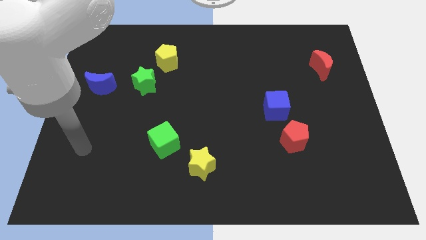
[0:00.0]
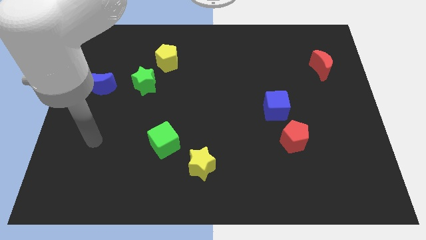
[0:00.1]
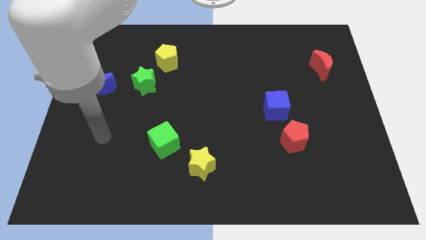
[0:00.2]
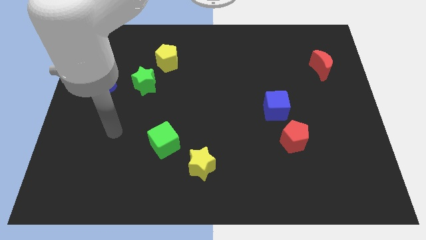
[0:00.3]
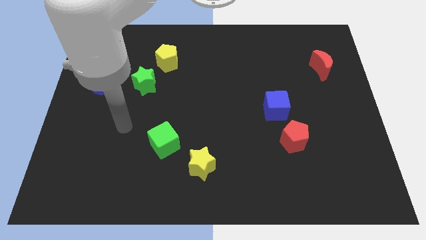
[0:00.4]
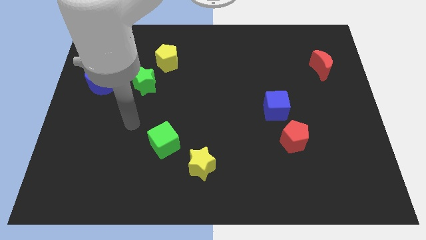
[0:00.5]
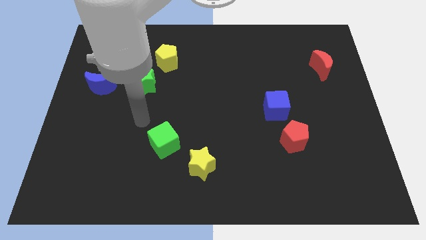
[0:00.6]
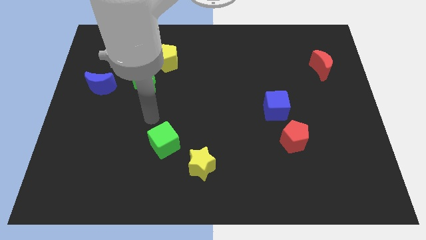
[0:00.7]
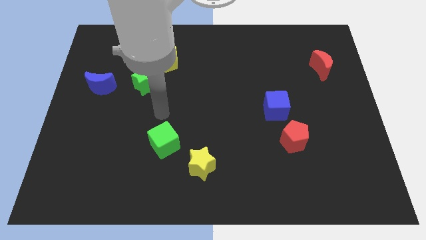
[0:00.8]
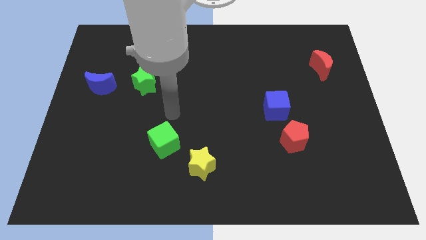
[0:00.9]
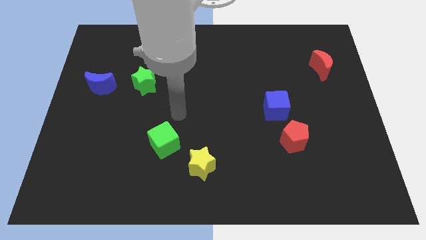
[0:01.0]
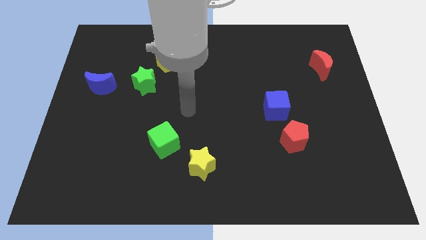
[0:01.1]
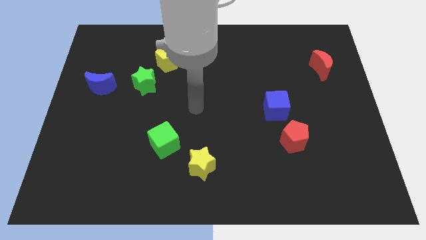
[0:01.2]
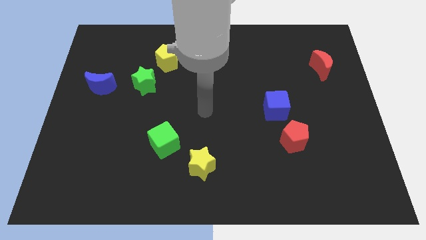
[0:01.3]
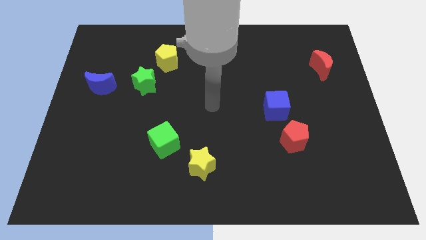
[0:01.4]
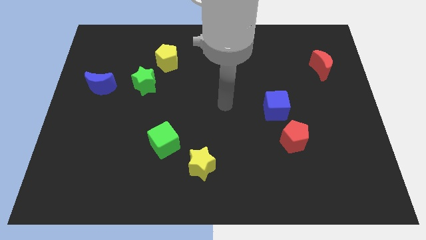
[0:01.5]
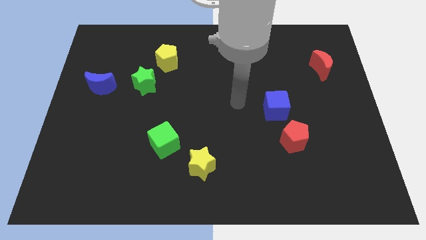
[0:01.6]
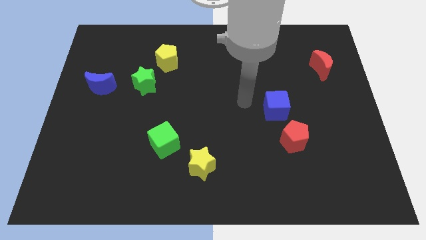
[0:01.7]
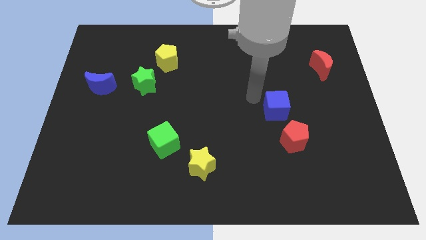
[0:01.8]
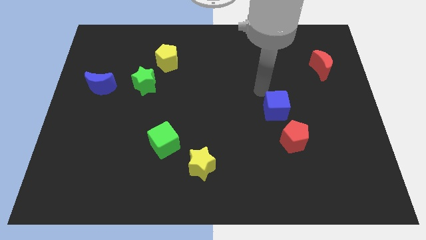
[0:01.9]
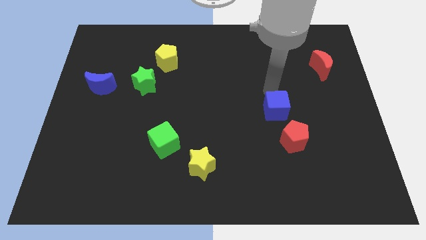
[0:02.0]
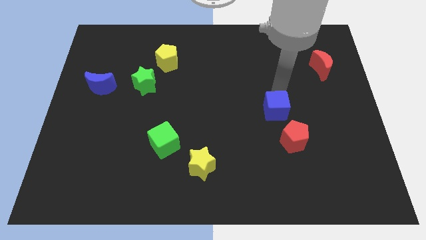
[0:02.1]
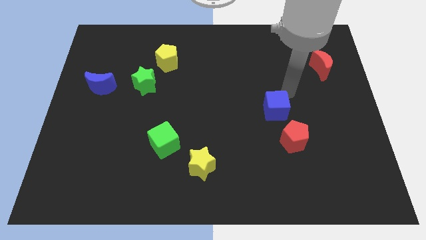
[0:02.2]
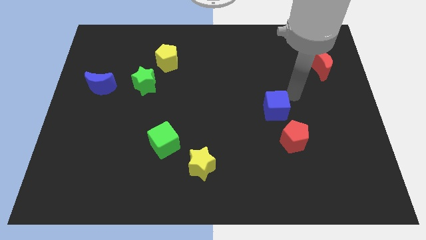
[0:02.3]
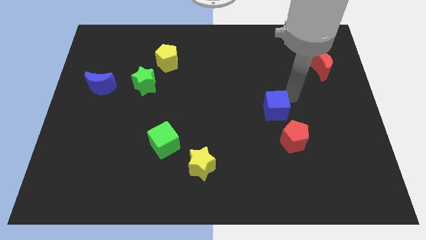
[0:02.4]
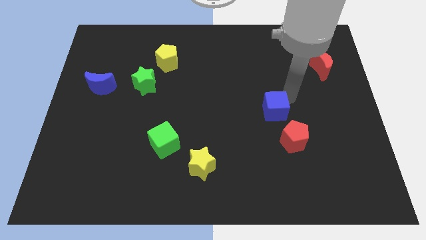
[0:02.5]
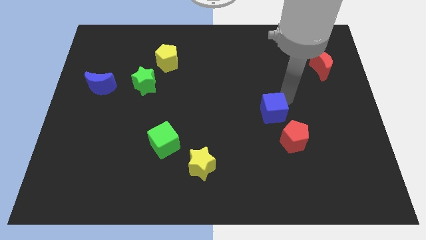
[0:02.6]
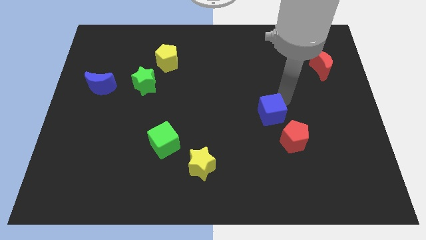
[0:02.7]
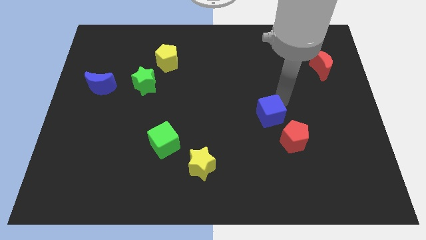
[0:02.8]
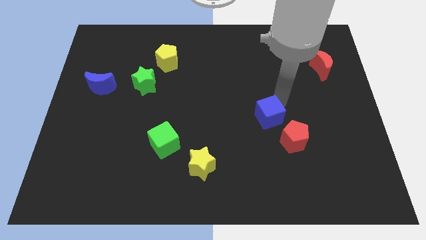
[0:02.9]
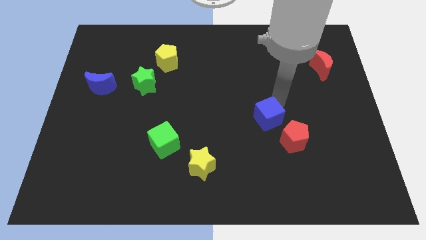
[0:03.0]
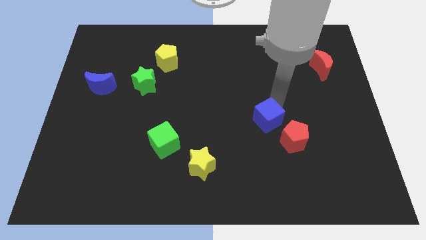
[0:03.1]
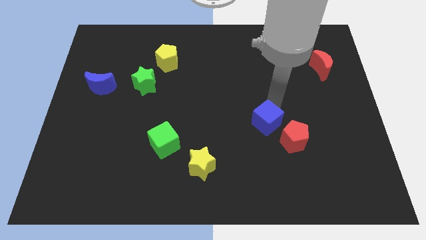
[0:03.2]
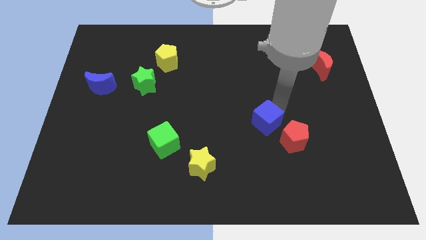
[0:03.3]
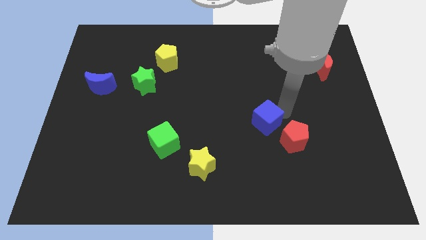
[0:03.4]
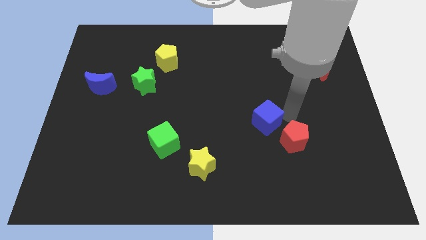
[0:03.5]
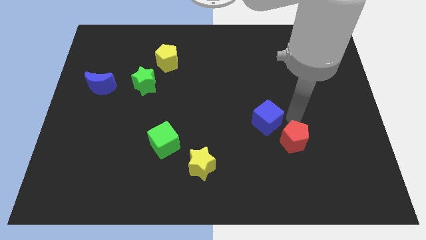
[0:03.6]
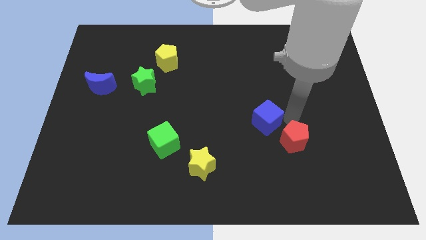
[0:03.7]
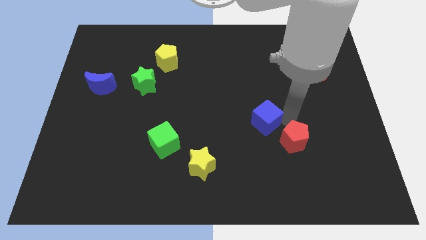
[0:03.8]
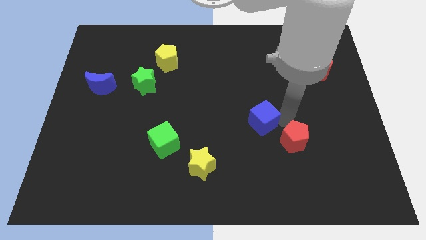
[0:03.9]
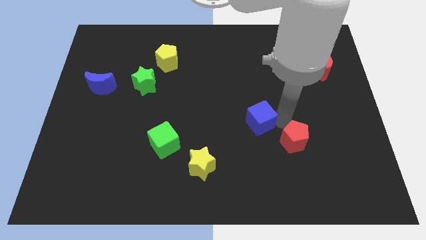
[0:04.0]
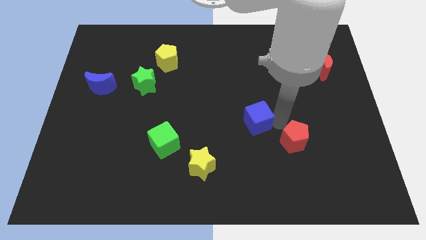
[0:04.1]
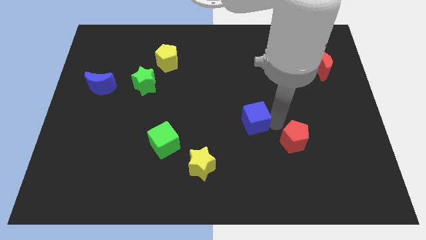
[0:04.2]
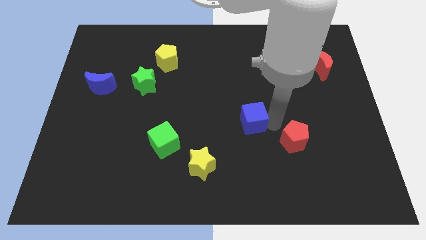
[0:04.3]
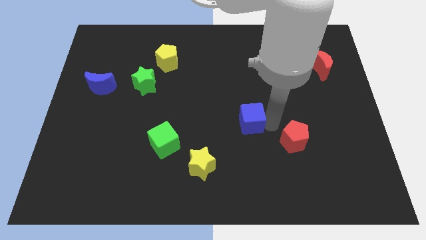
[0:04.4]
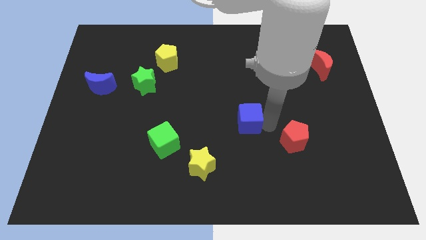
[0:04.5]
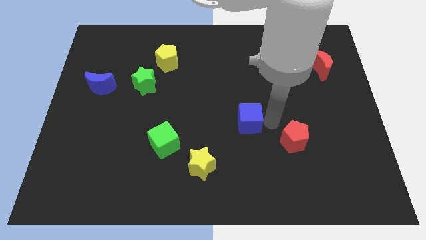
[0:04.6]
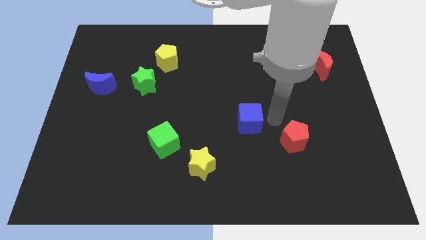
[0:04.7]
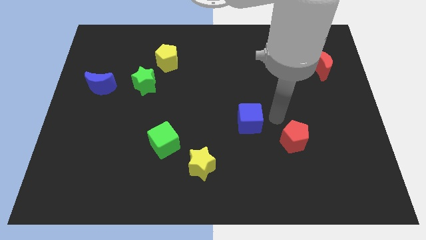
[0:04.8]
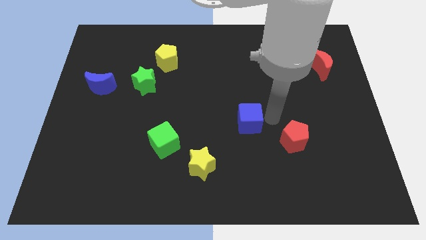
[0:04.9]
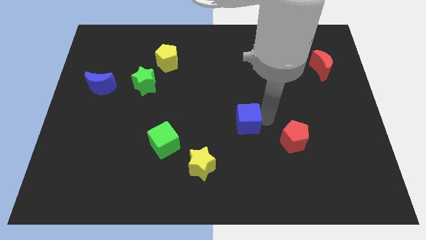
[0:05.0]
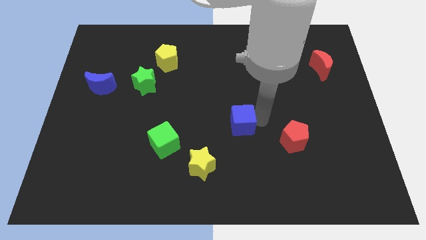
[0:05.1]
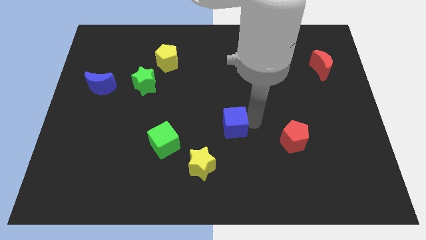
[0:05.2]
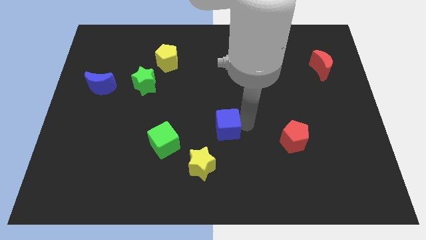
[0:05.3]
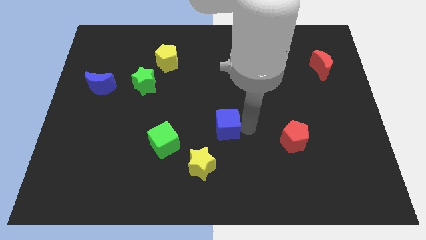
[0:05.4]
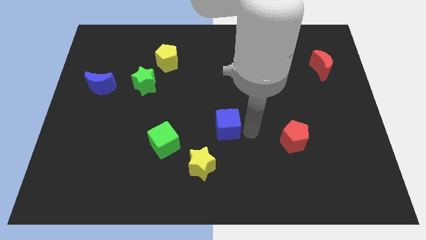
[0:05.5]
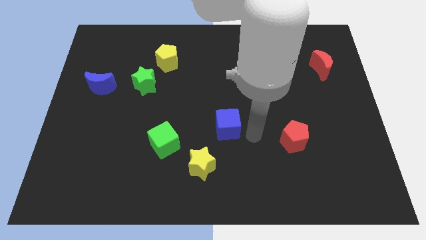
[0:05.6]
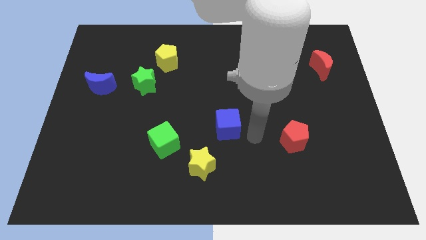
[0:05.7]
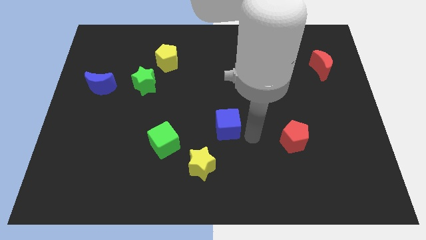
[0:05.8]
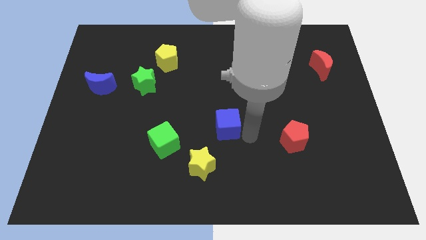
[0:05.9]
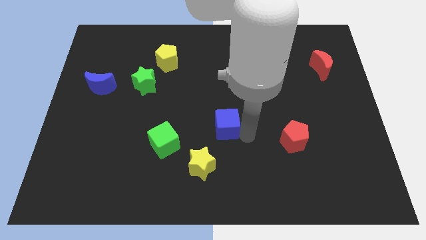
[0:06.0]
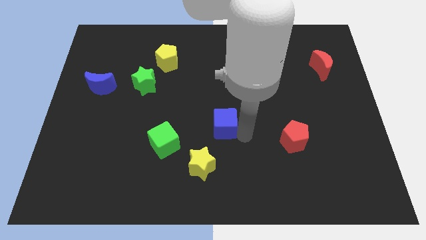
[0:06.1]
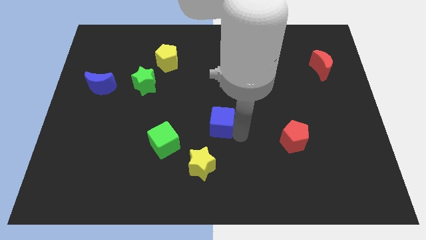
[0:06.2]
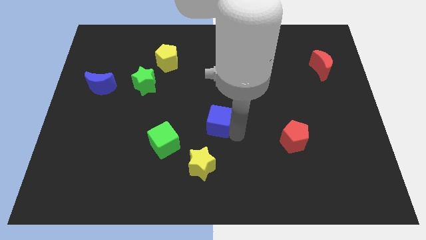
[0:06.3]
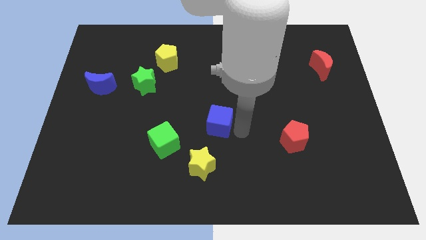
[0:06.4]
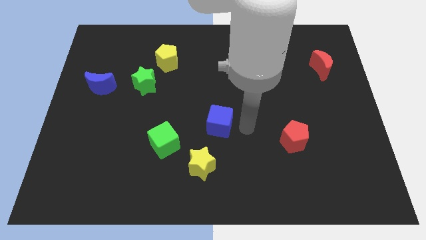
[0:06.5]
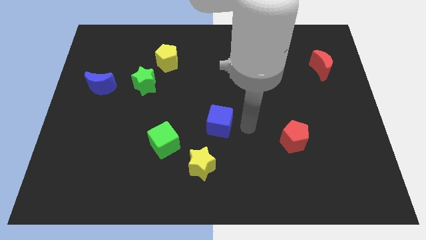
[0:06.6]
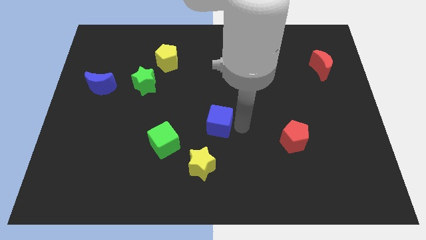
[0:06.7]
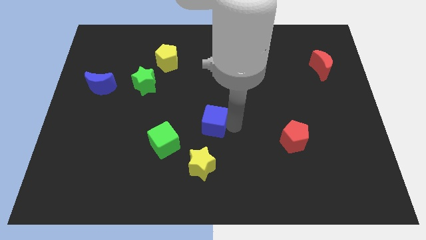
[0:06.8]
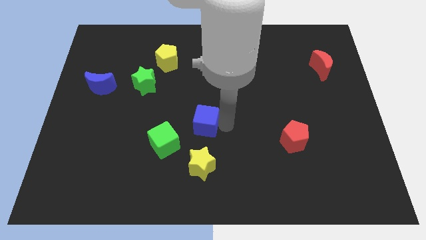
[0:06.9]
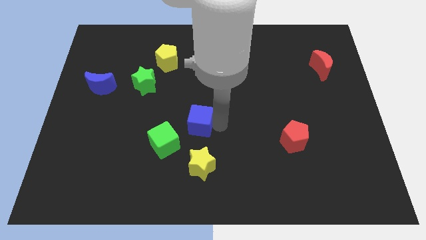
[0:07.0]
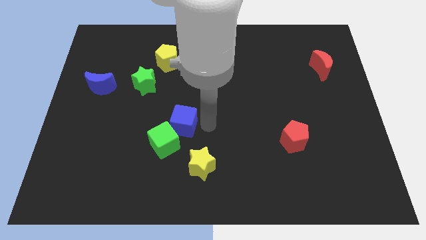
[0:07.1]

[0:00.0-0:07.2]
slide the blue cube left

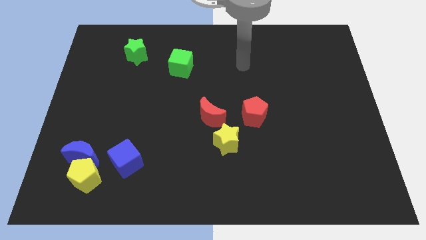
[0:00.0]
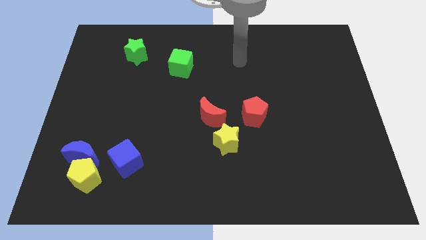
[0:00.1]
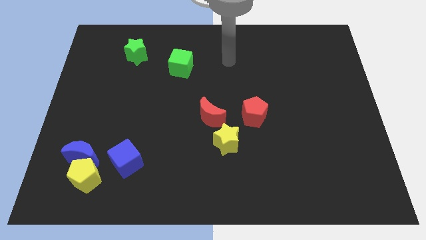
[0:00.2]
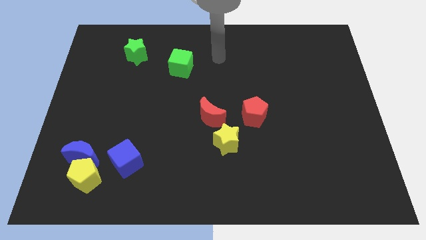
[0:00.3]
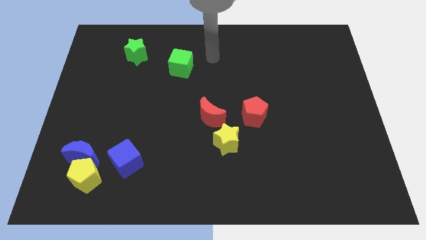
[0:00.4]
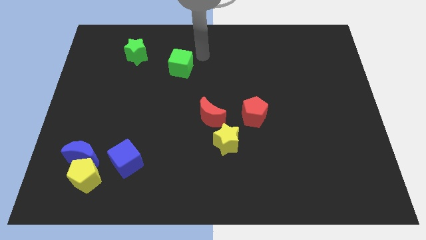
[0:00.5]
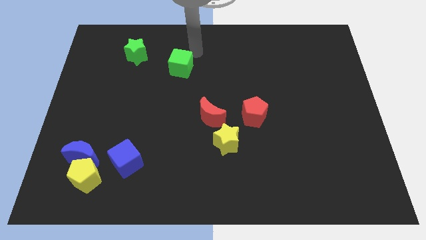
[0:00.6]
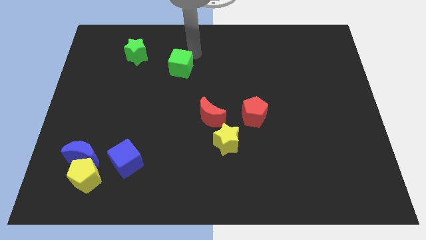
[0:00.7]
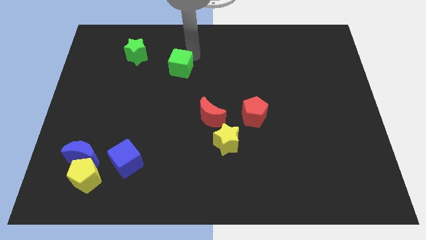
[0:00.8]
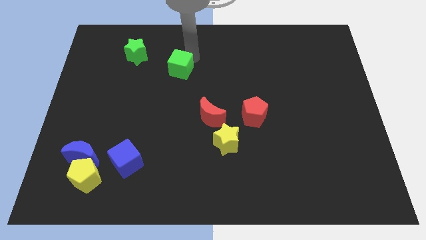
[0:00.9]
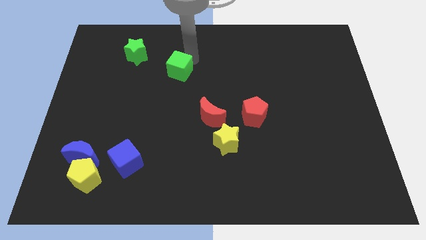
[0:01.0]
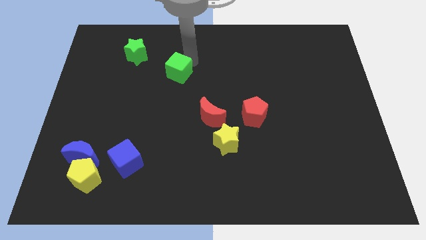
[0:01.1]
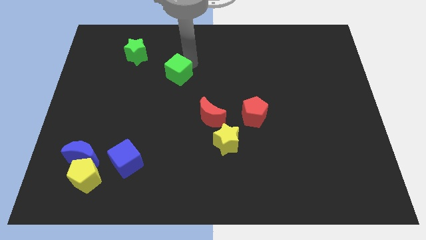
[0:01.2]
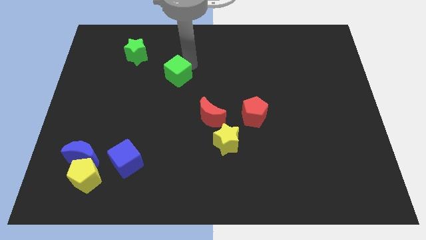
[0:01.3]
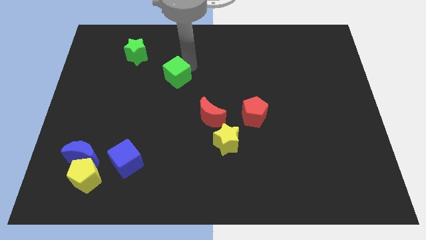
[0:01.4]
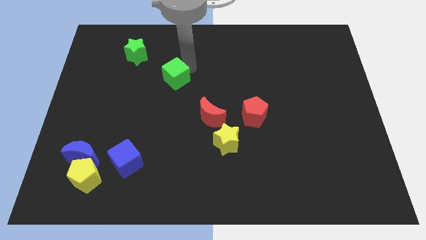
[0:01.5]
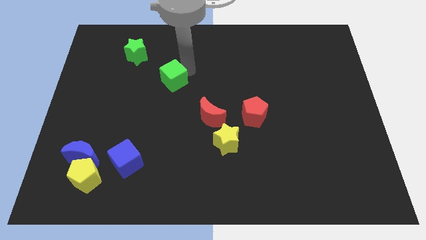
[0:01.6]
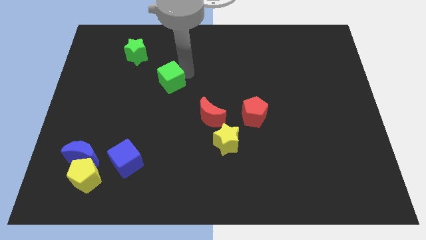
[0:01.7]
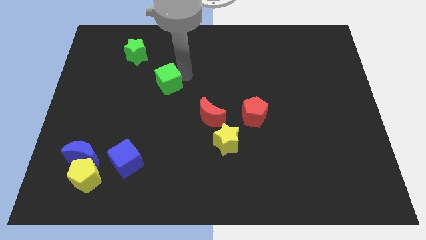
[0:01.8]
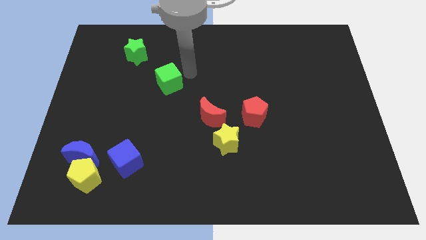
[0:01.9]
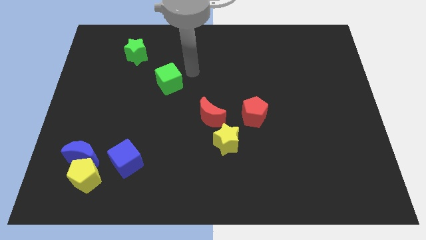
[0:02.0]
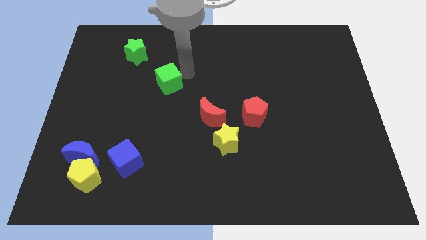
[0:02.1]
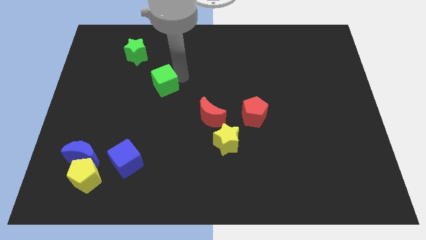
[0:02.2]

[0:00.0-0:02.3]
slightly move the green cube down and left
